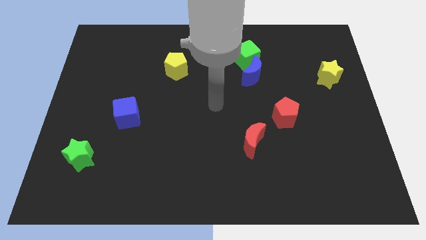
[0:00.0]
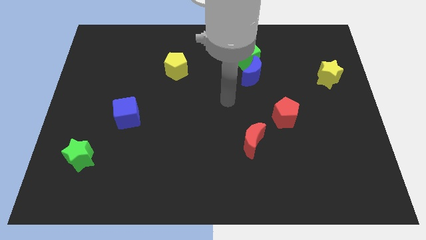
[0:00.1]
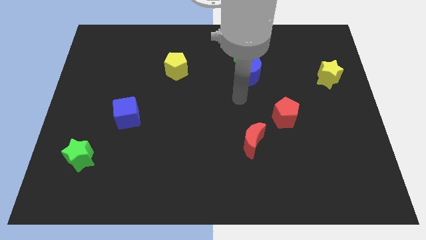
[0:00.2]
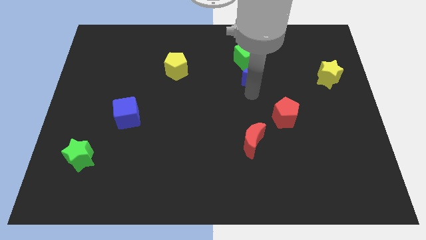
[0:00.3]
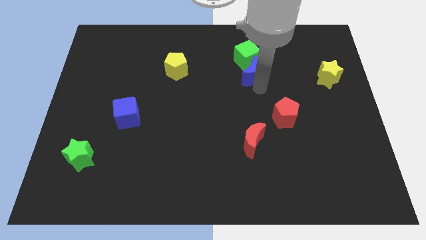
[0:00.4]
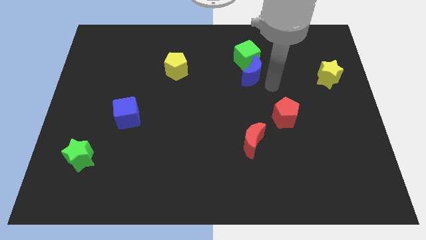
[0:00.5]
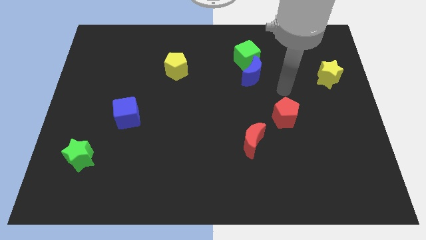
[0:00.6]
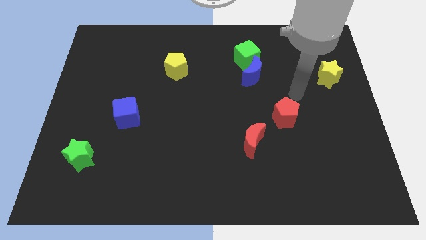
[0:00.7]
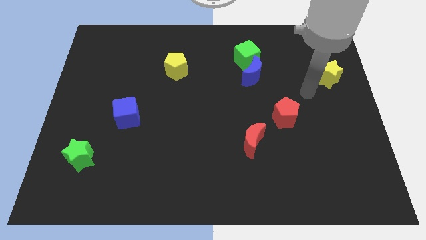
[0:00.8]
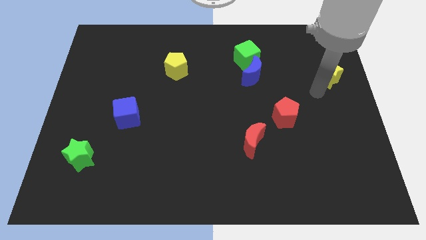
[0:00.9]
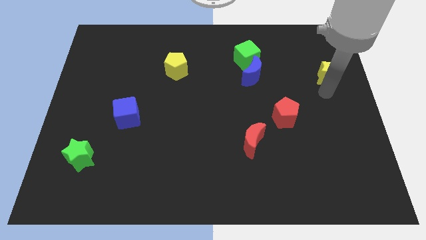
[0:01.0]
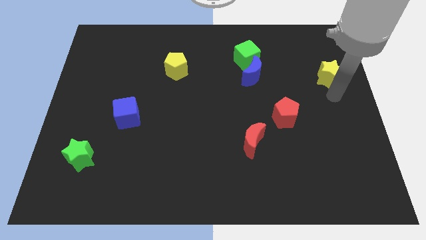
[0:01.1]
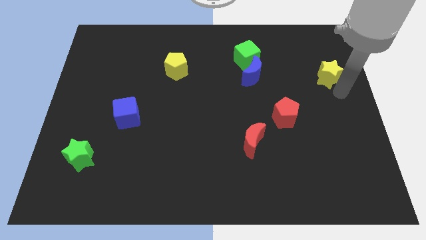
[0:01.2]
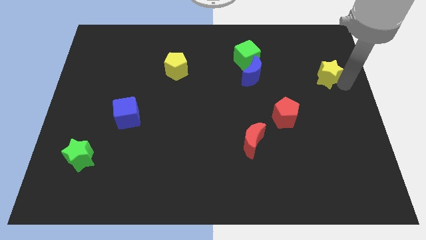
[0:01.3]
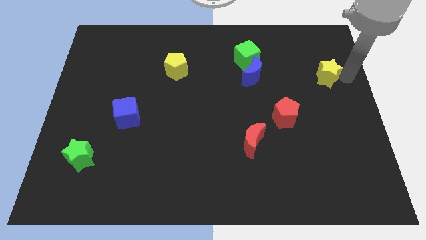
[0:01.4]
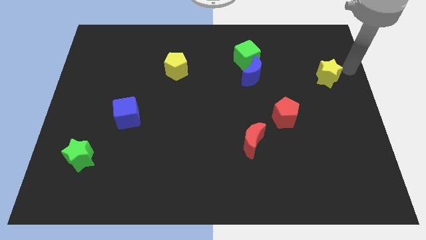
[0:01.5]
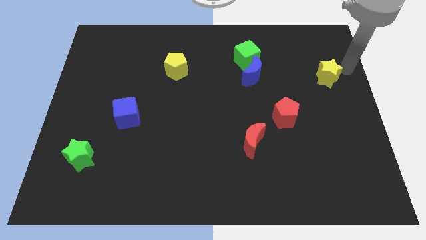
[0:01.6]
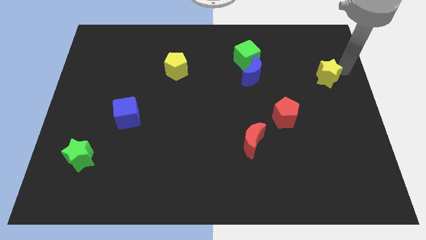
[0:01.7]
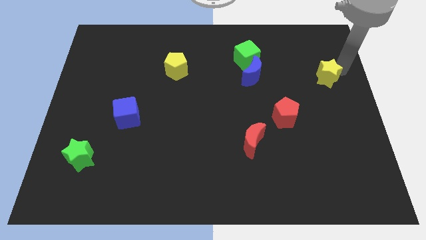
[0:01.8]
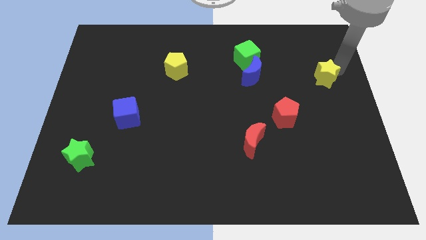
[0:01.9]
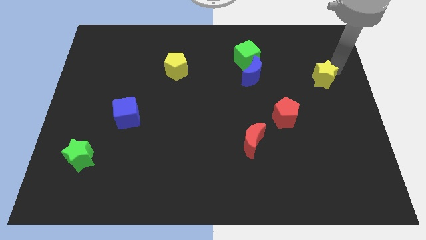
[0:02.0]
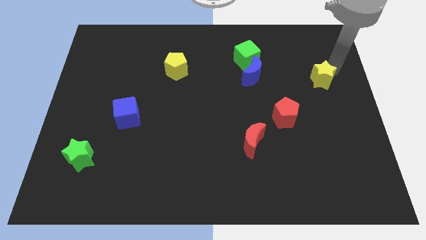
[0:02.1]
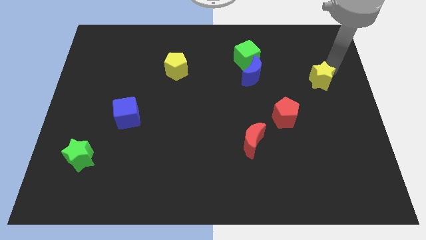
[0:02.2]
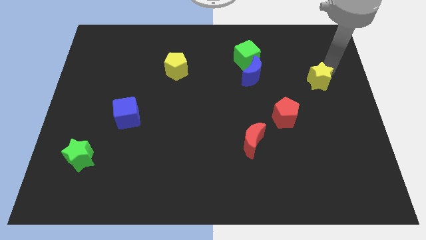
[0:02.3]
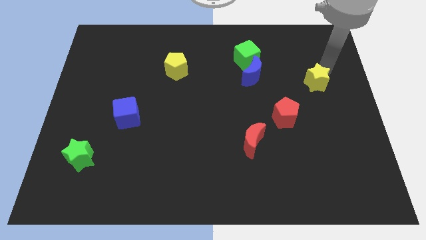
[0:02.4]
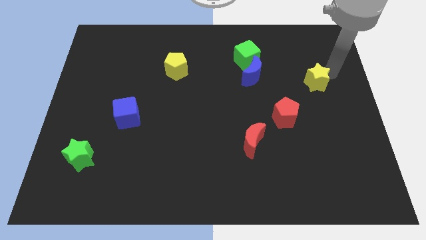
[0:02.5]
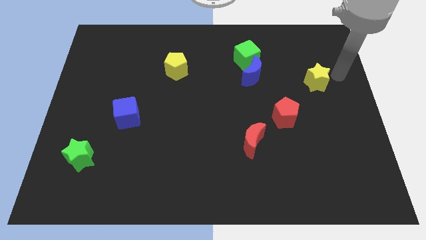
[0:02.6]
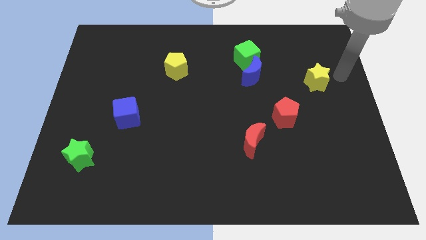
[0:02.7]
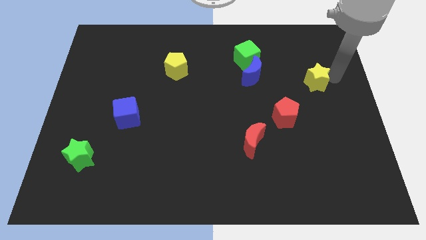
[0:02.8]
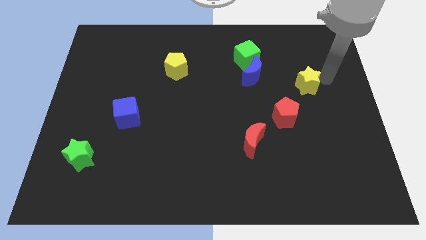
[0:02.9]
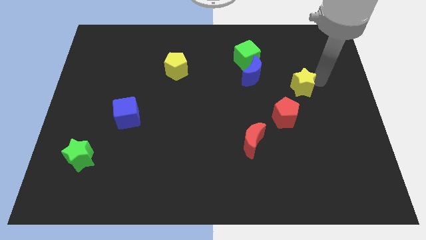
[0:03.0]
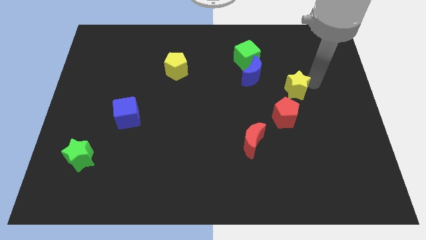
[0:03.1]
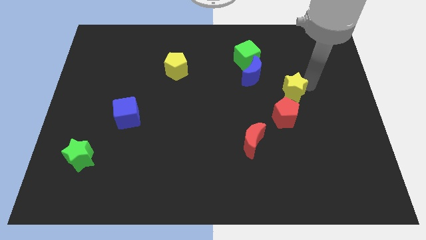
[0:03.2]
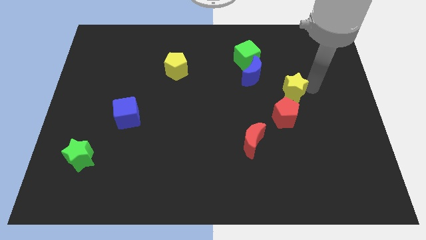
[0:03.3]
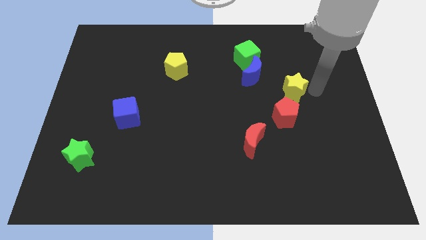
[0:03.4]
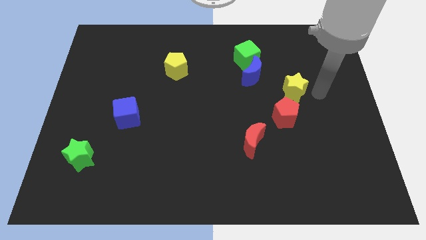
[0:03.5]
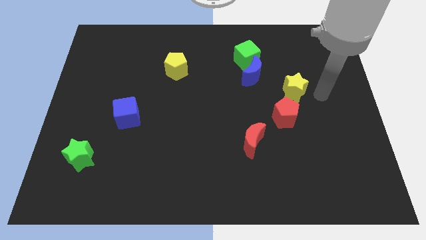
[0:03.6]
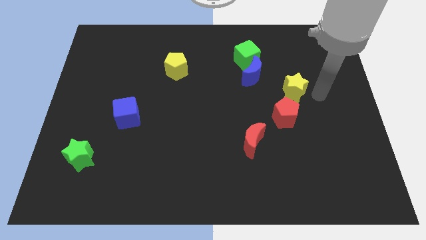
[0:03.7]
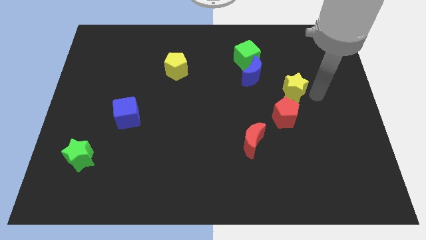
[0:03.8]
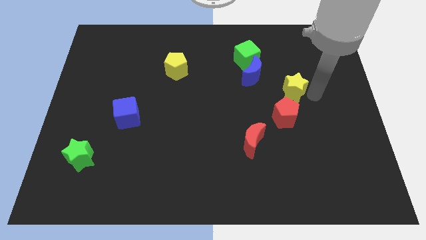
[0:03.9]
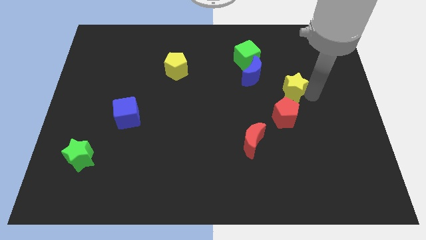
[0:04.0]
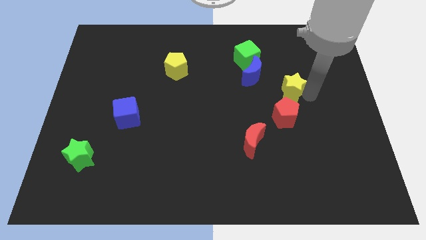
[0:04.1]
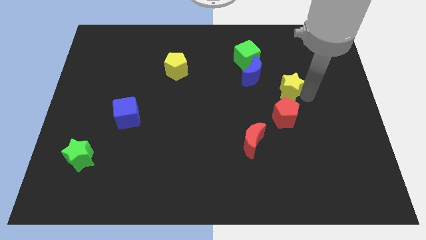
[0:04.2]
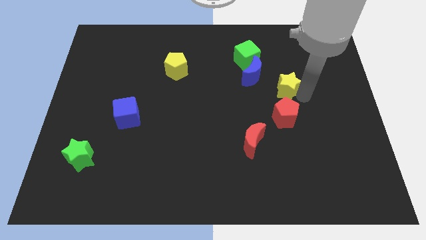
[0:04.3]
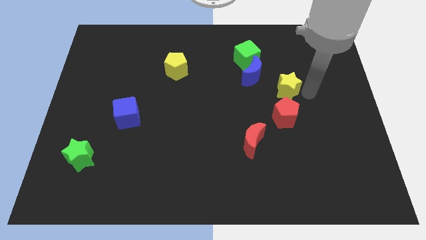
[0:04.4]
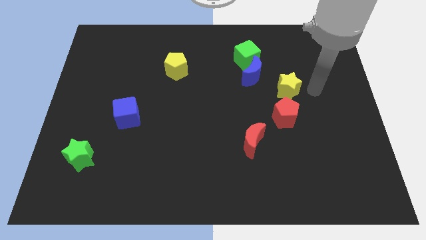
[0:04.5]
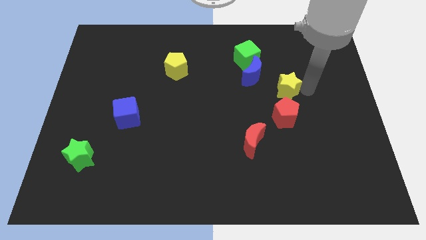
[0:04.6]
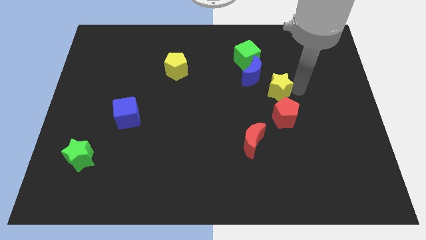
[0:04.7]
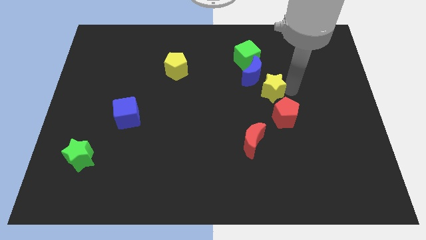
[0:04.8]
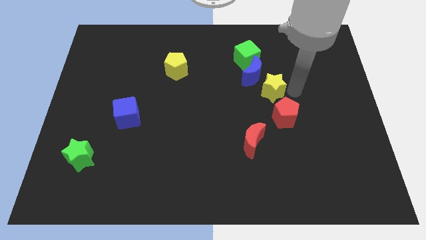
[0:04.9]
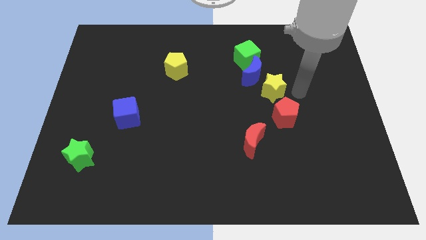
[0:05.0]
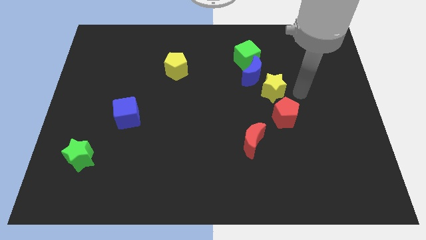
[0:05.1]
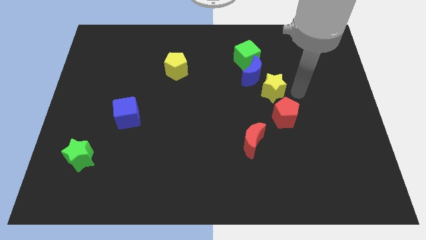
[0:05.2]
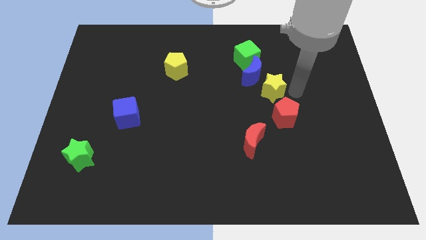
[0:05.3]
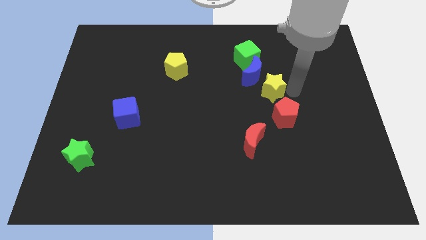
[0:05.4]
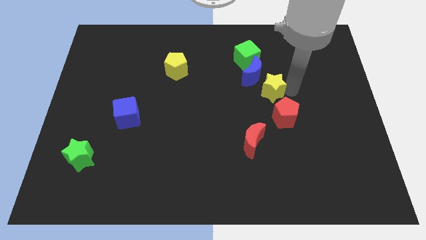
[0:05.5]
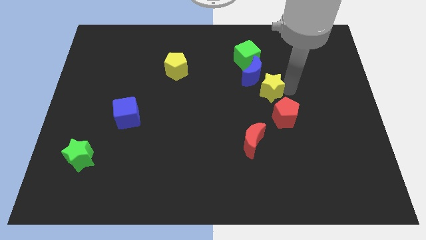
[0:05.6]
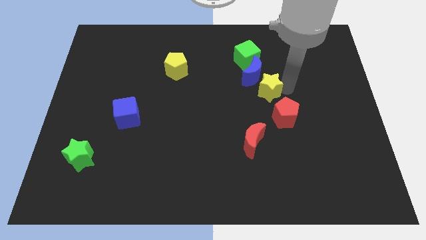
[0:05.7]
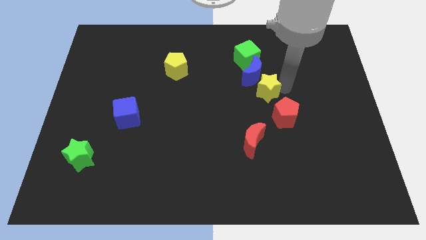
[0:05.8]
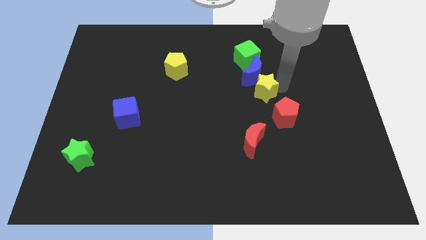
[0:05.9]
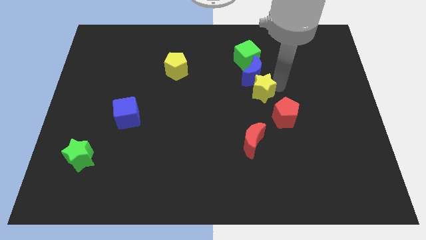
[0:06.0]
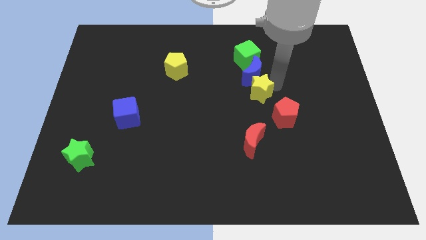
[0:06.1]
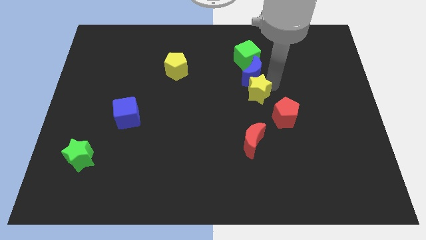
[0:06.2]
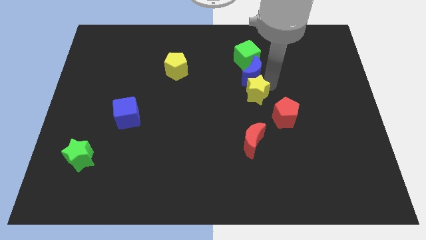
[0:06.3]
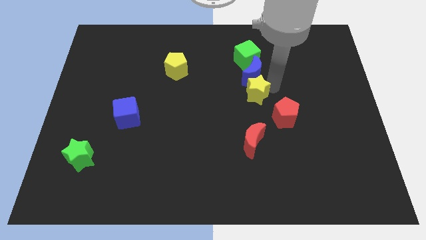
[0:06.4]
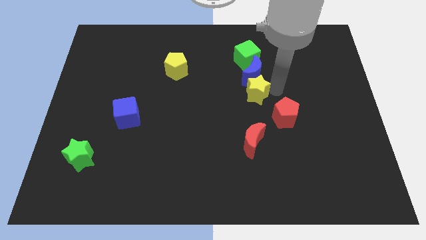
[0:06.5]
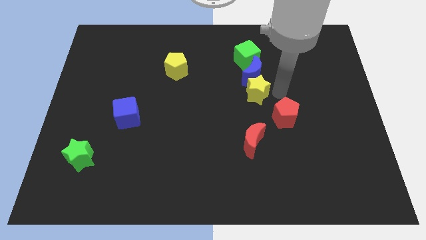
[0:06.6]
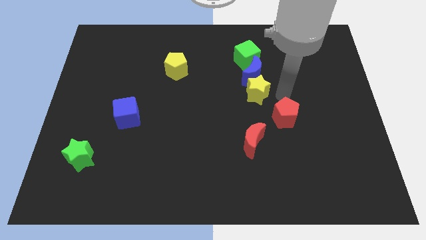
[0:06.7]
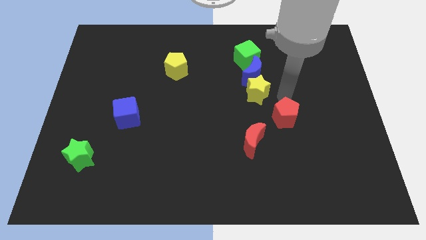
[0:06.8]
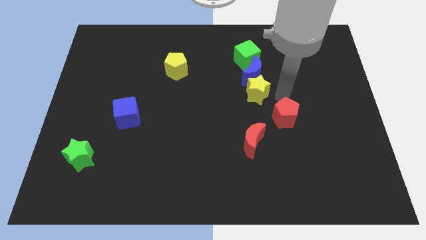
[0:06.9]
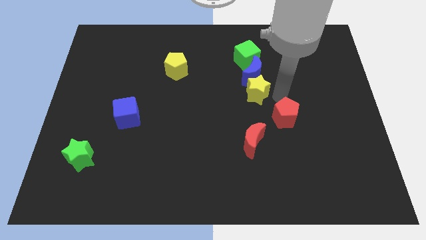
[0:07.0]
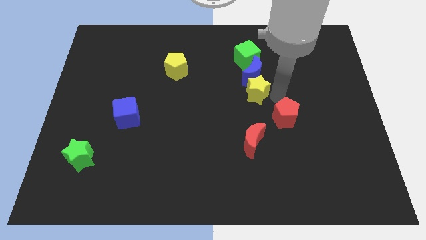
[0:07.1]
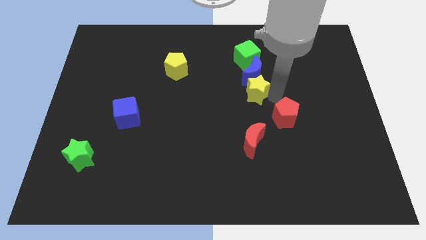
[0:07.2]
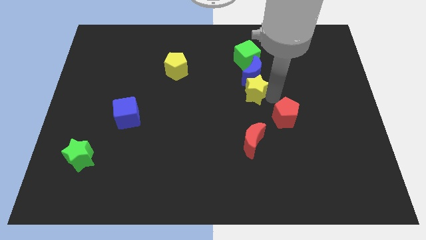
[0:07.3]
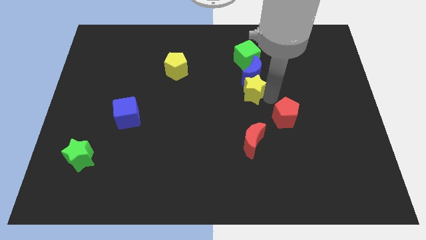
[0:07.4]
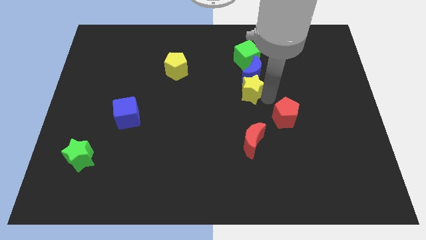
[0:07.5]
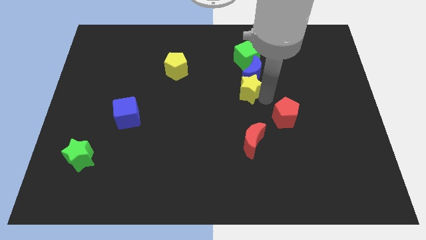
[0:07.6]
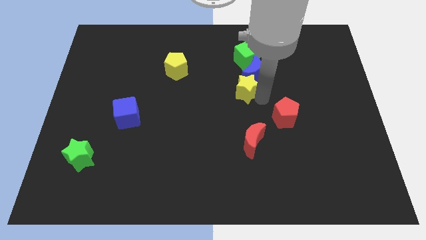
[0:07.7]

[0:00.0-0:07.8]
slide the yellow star left

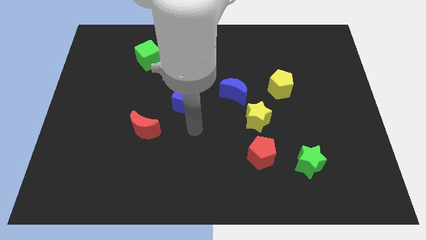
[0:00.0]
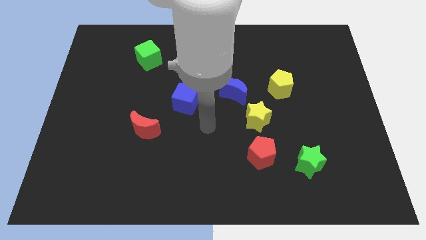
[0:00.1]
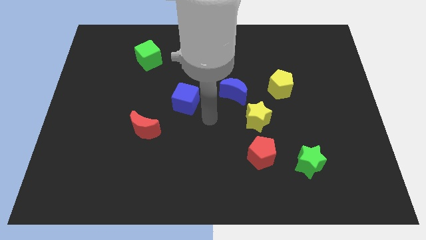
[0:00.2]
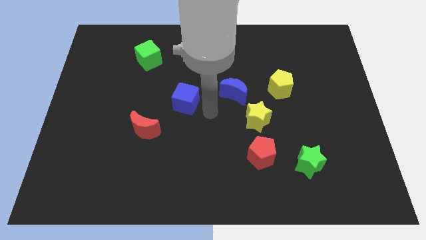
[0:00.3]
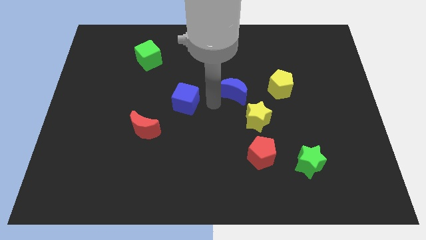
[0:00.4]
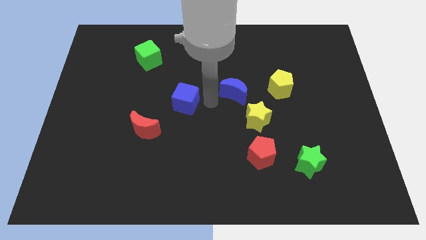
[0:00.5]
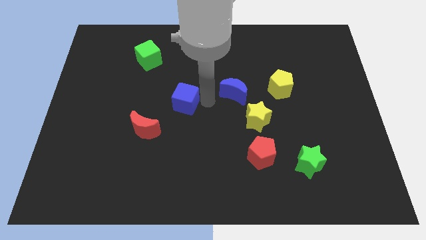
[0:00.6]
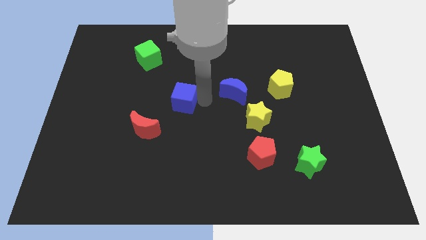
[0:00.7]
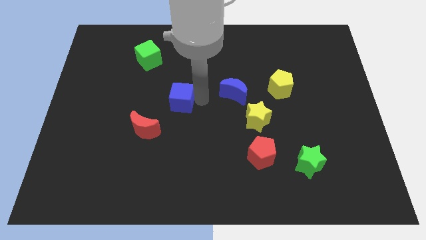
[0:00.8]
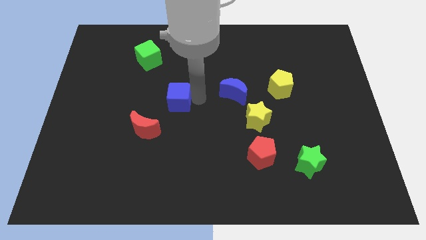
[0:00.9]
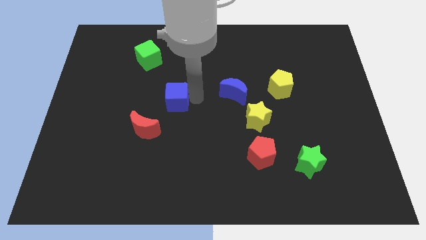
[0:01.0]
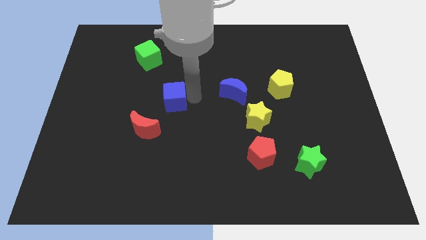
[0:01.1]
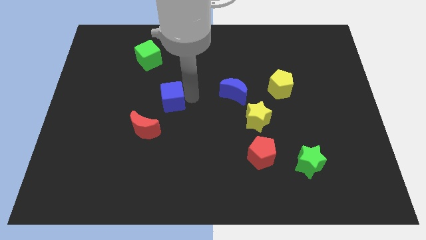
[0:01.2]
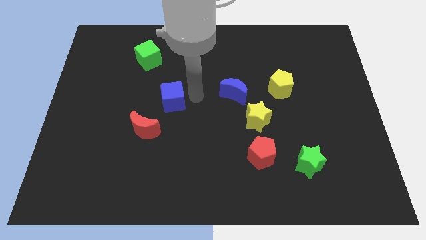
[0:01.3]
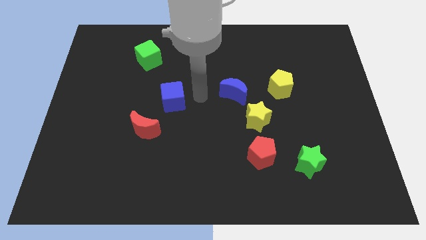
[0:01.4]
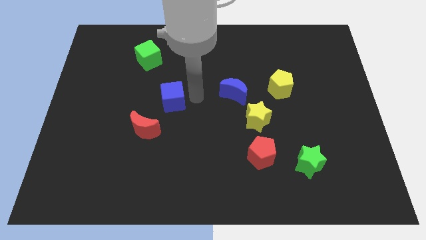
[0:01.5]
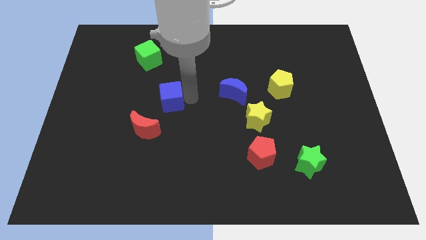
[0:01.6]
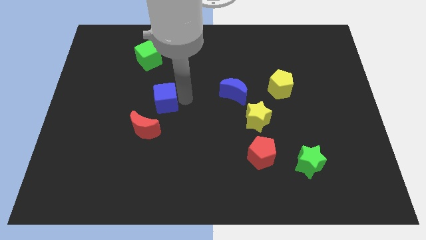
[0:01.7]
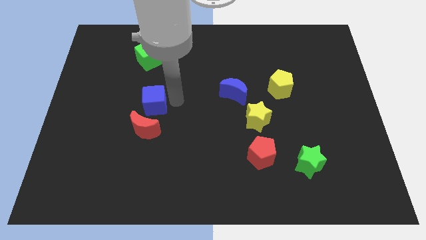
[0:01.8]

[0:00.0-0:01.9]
move the blue cube a bit left
